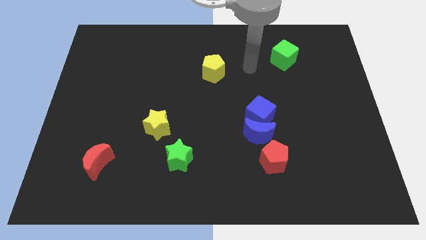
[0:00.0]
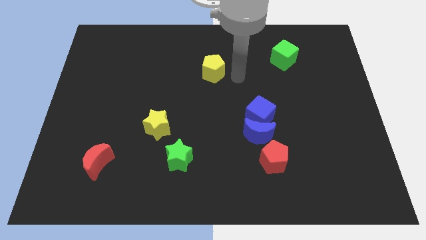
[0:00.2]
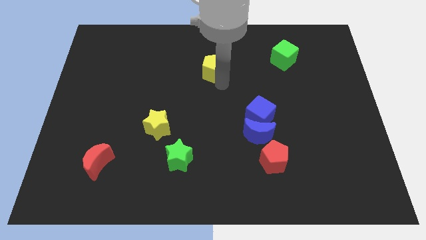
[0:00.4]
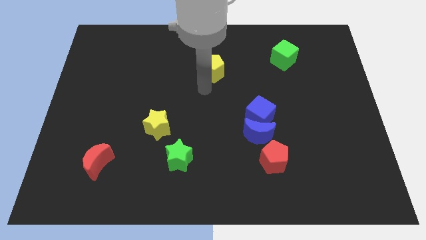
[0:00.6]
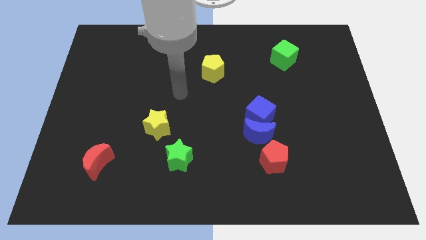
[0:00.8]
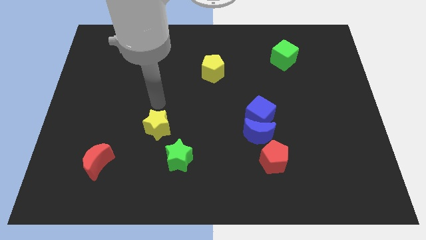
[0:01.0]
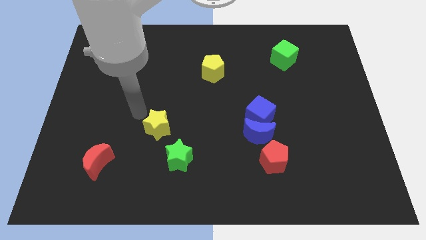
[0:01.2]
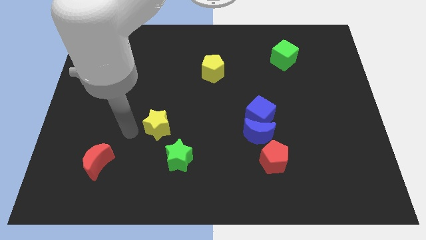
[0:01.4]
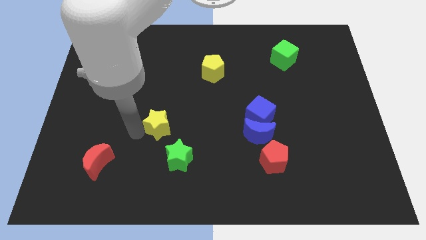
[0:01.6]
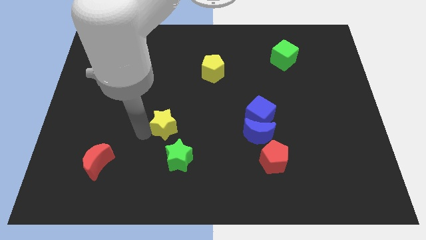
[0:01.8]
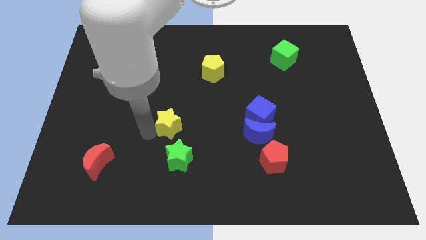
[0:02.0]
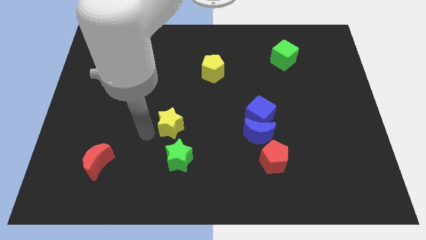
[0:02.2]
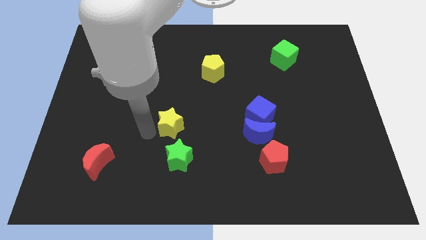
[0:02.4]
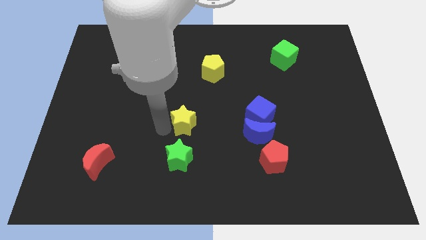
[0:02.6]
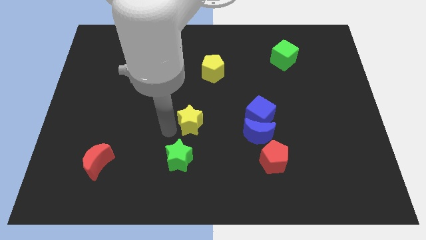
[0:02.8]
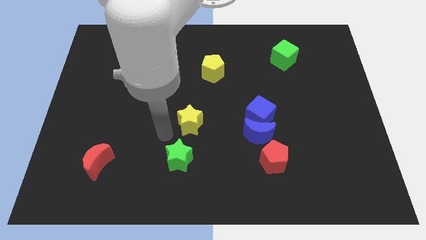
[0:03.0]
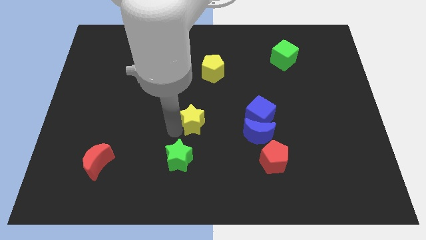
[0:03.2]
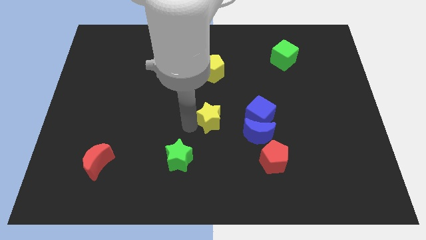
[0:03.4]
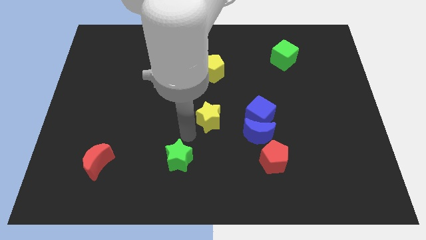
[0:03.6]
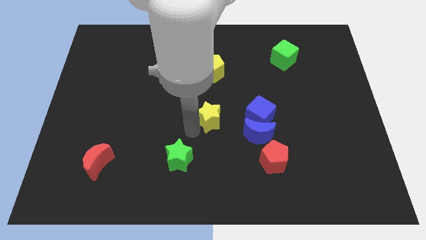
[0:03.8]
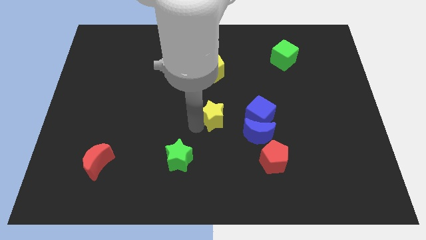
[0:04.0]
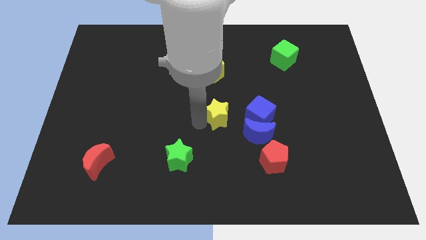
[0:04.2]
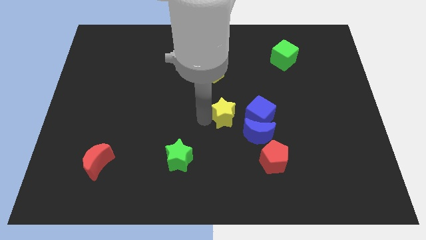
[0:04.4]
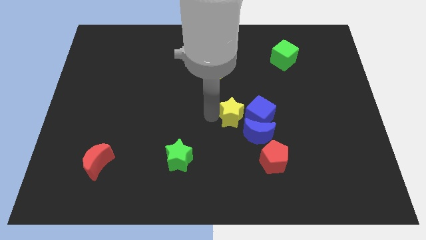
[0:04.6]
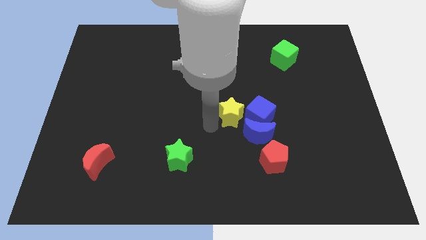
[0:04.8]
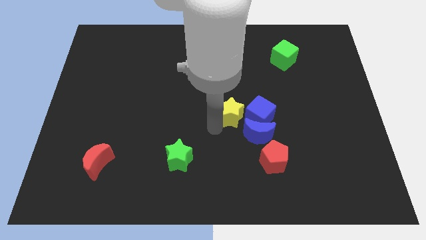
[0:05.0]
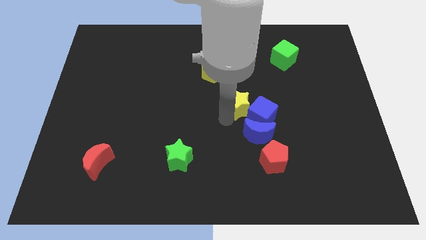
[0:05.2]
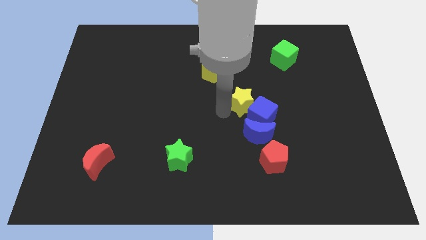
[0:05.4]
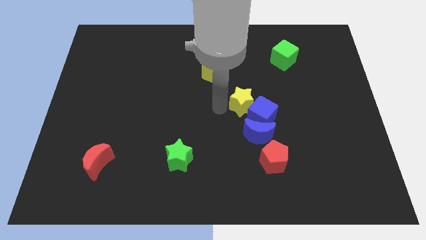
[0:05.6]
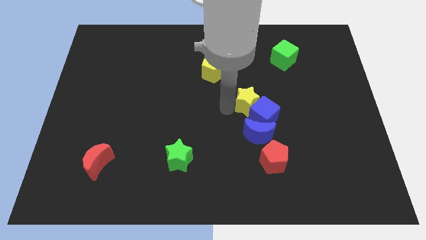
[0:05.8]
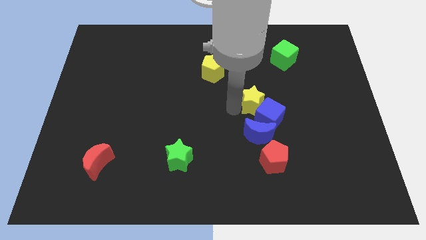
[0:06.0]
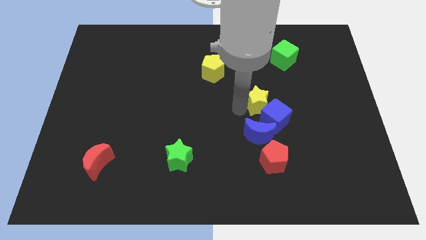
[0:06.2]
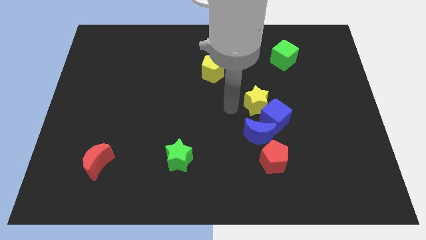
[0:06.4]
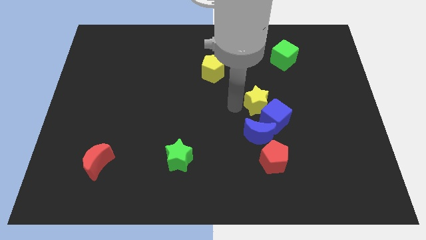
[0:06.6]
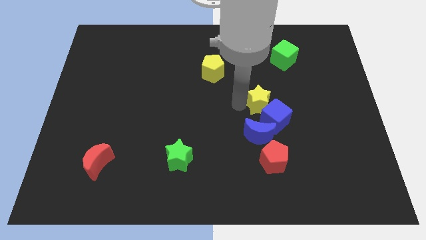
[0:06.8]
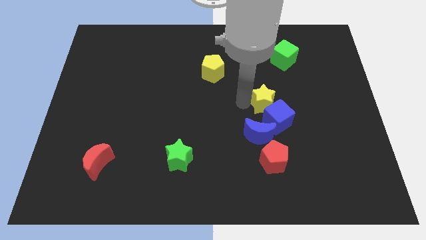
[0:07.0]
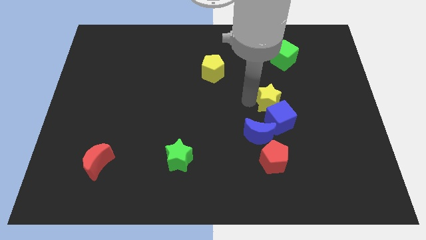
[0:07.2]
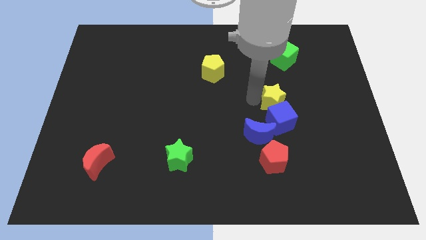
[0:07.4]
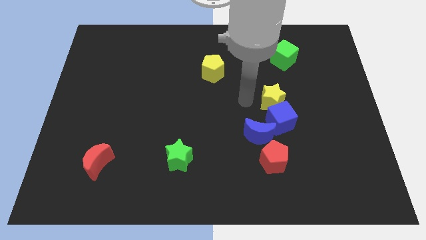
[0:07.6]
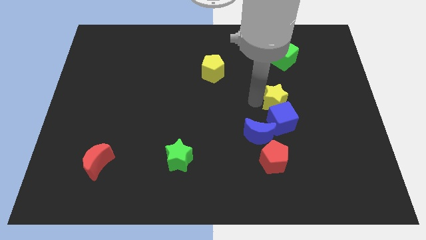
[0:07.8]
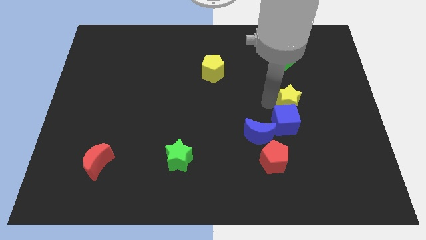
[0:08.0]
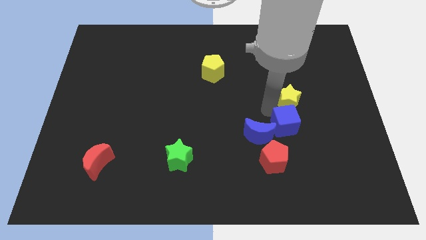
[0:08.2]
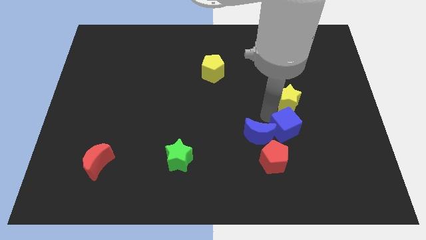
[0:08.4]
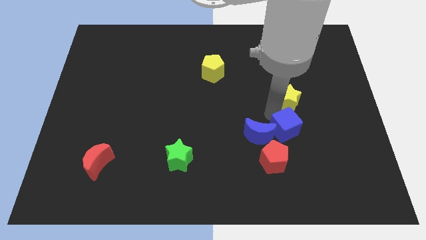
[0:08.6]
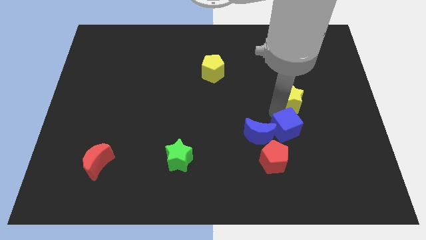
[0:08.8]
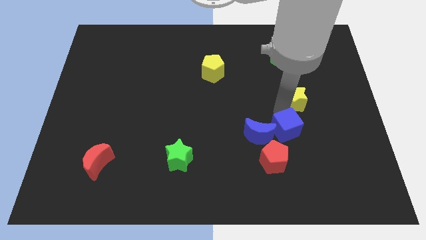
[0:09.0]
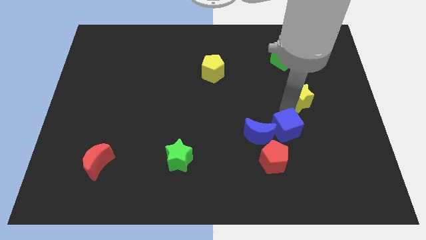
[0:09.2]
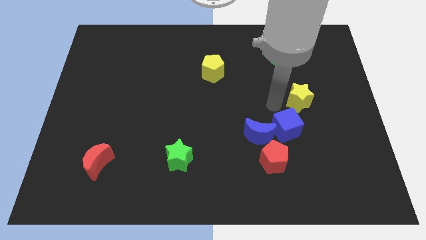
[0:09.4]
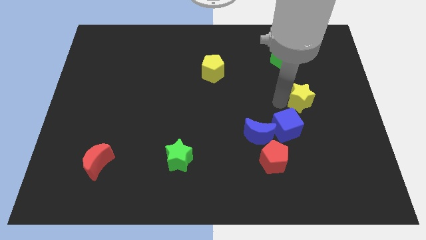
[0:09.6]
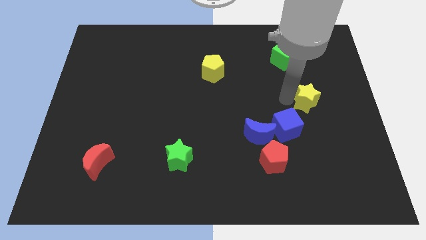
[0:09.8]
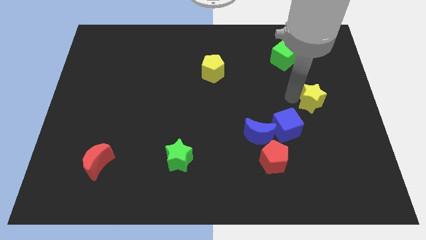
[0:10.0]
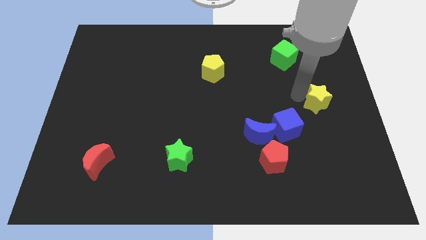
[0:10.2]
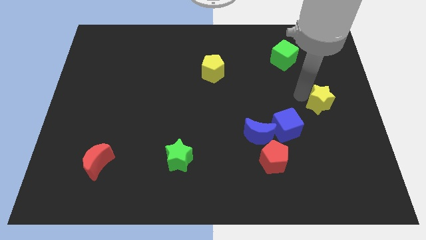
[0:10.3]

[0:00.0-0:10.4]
put the yellow star to the right side of the board

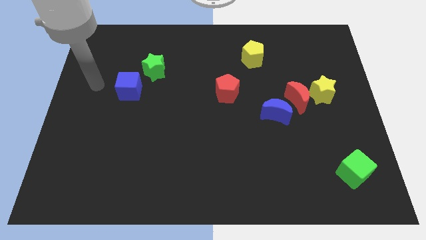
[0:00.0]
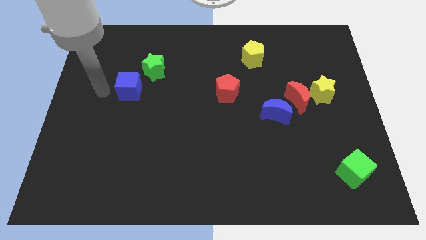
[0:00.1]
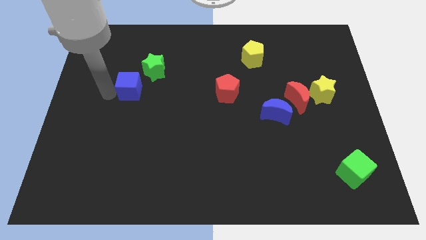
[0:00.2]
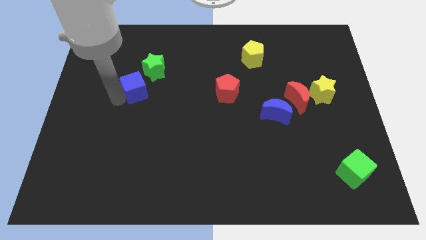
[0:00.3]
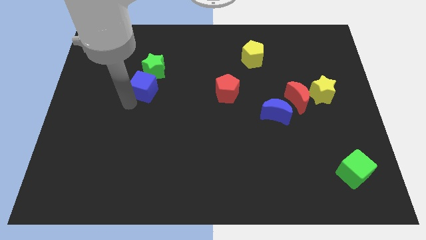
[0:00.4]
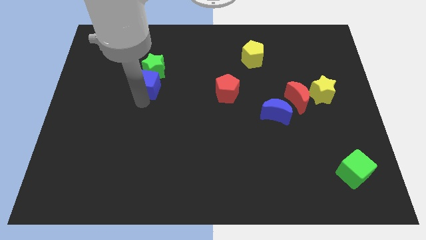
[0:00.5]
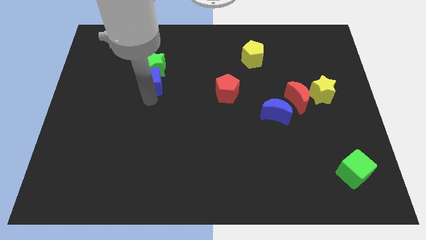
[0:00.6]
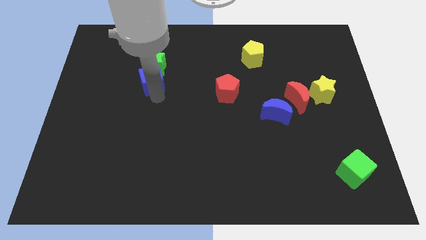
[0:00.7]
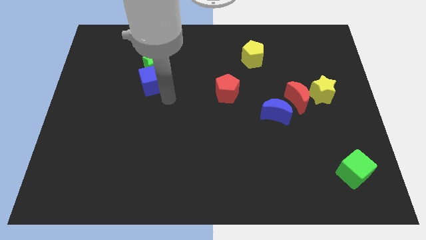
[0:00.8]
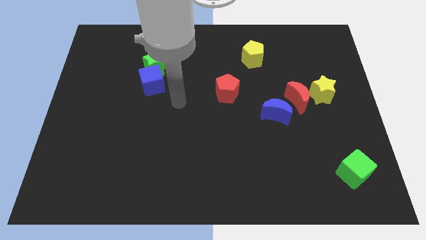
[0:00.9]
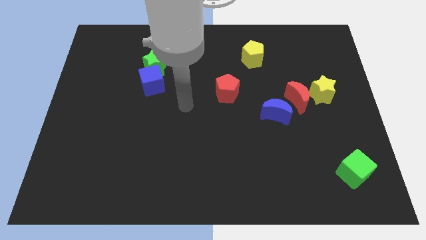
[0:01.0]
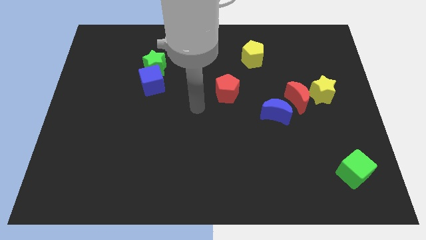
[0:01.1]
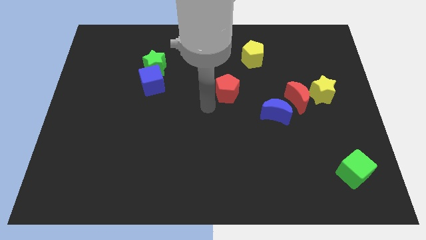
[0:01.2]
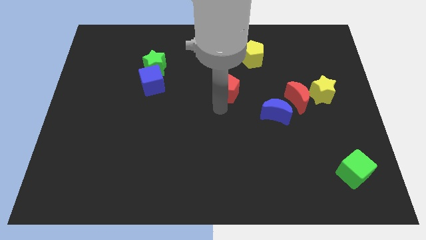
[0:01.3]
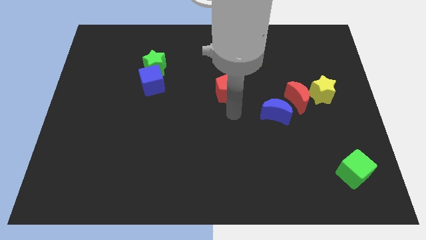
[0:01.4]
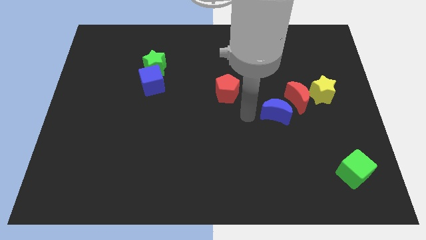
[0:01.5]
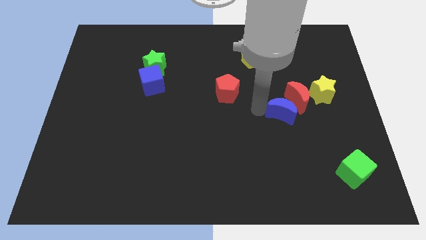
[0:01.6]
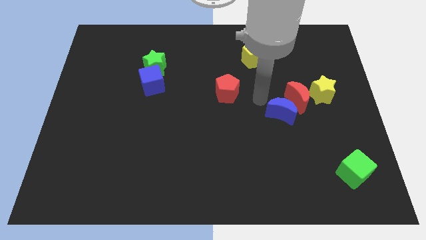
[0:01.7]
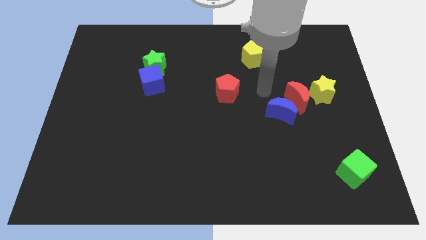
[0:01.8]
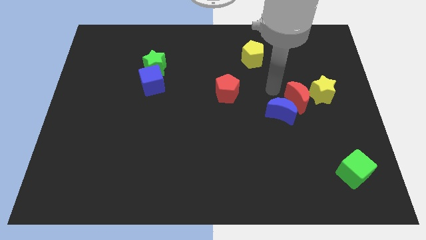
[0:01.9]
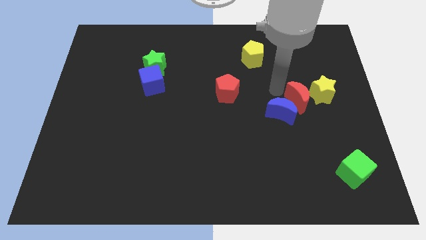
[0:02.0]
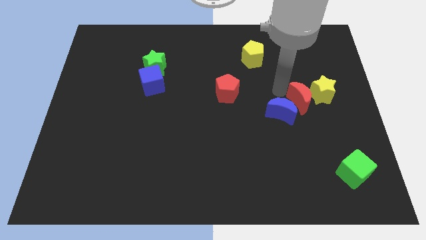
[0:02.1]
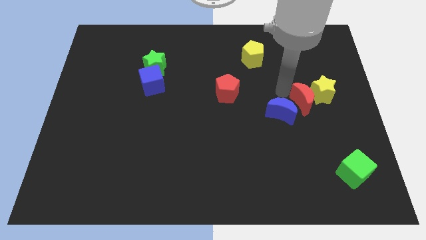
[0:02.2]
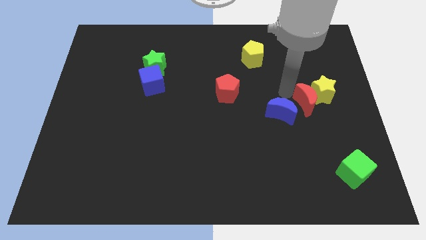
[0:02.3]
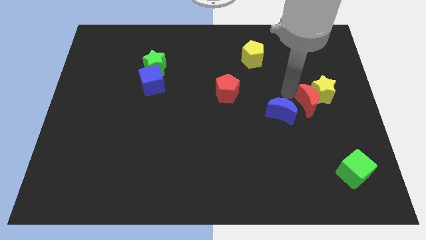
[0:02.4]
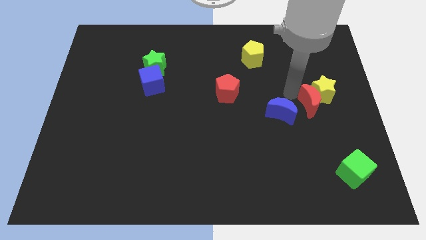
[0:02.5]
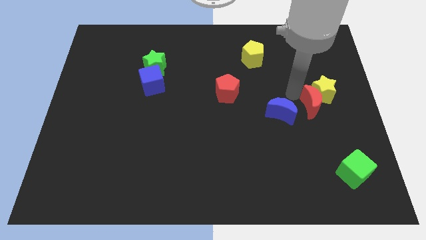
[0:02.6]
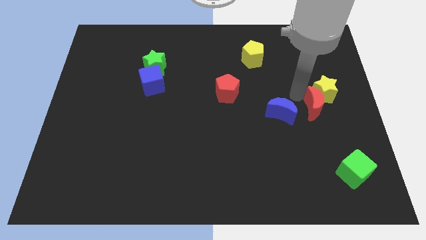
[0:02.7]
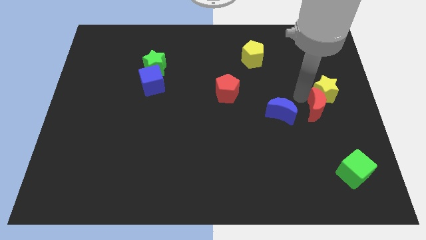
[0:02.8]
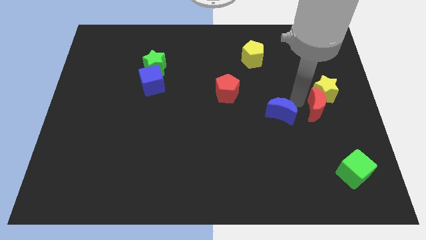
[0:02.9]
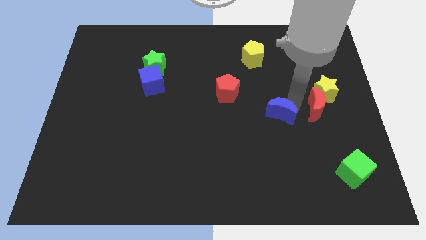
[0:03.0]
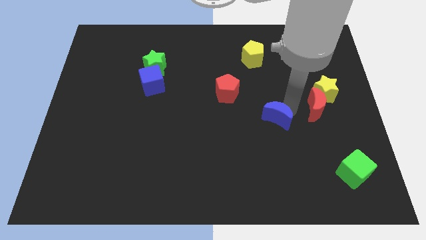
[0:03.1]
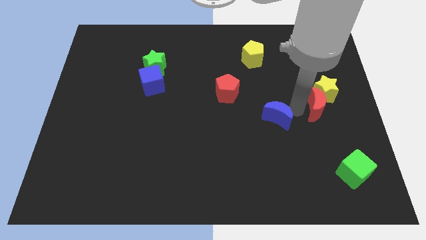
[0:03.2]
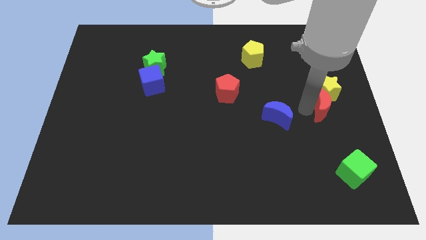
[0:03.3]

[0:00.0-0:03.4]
push the red moon to the center right
